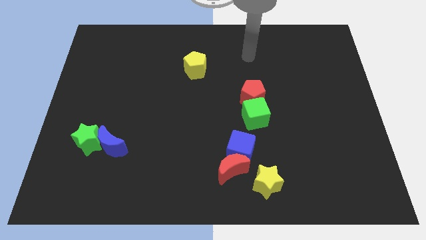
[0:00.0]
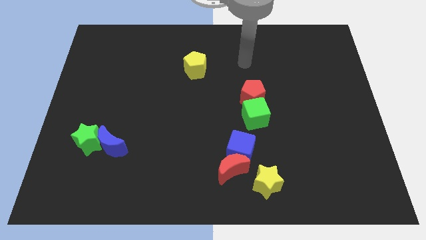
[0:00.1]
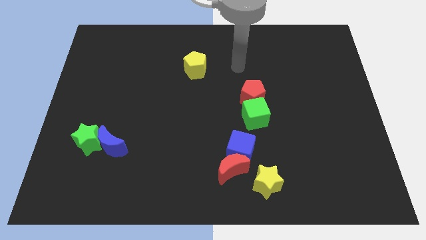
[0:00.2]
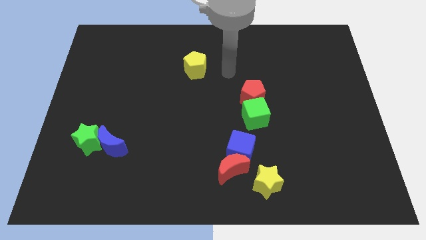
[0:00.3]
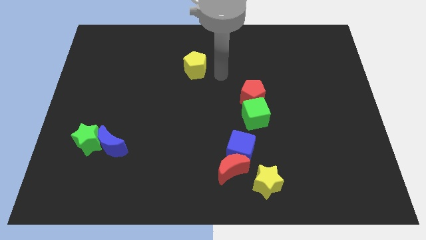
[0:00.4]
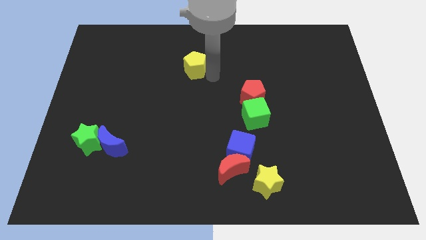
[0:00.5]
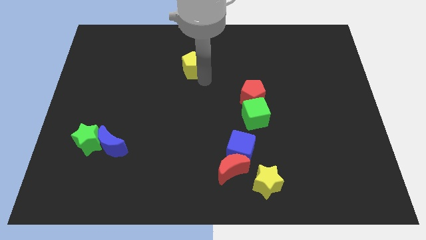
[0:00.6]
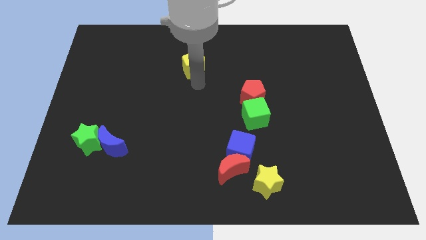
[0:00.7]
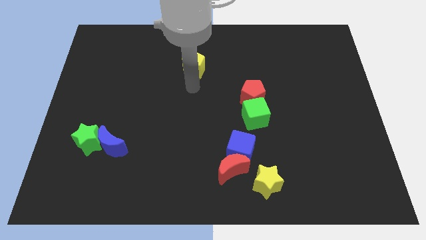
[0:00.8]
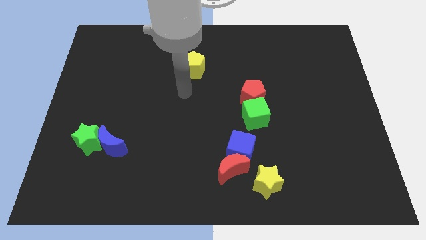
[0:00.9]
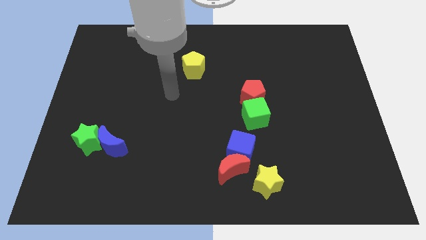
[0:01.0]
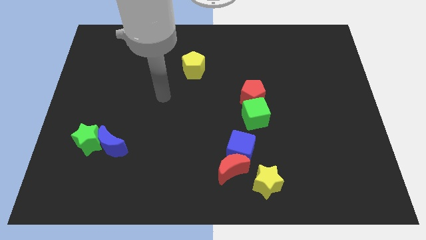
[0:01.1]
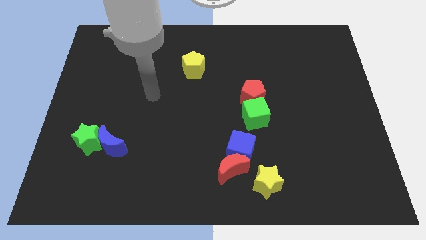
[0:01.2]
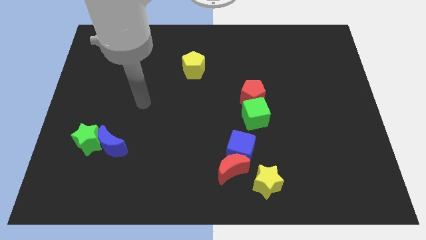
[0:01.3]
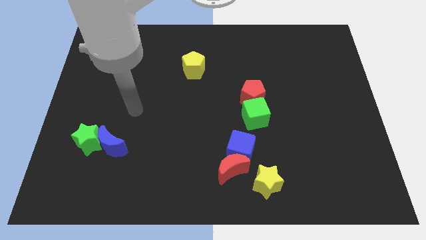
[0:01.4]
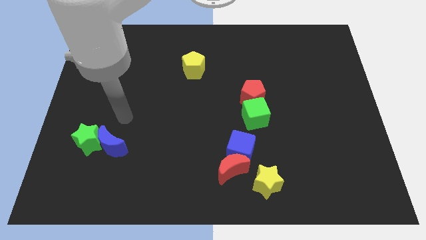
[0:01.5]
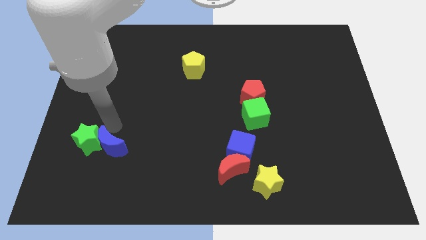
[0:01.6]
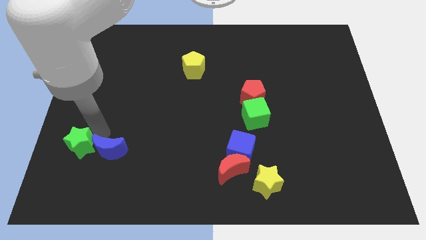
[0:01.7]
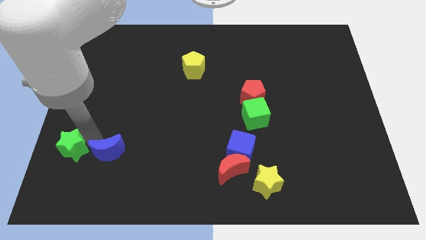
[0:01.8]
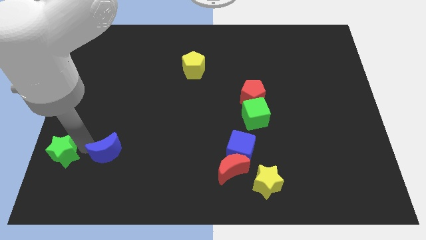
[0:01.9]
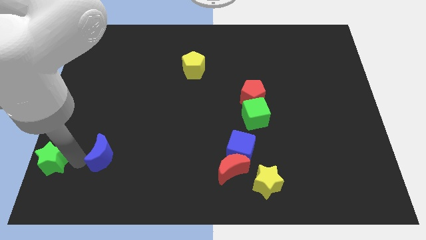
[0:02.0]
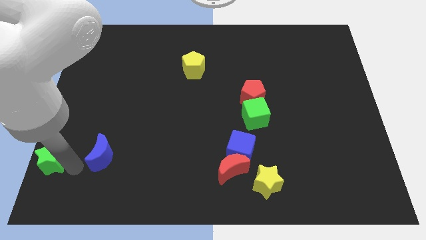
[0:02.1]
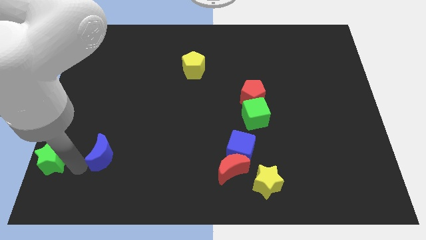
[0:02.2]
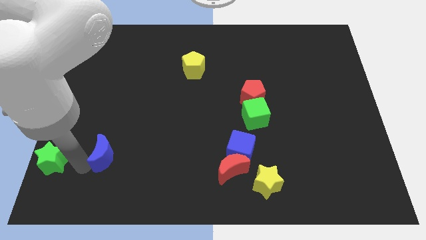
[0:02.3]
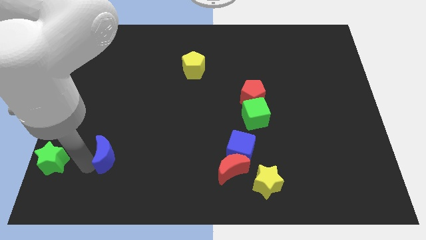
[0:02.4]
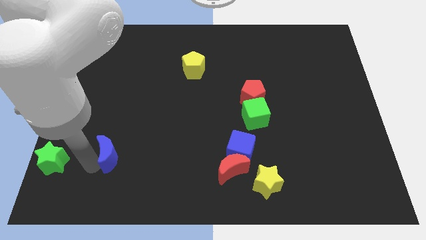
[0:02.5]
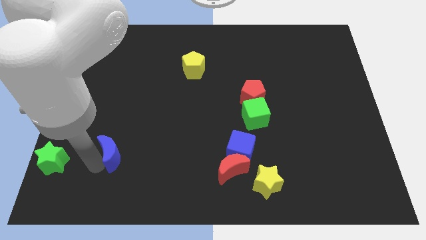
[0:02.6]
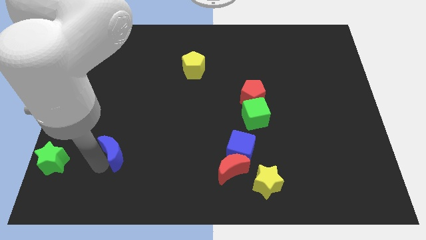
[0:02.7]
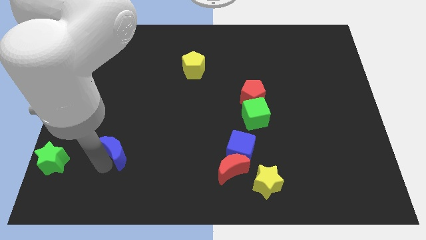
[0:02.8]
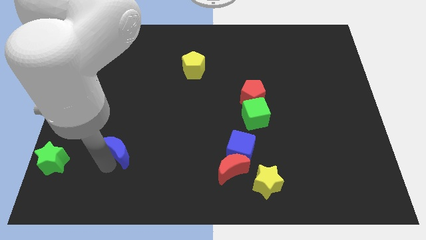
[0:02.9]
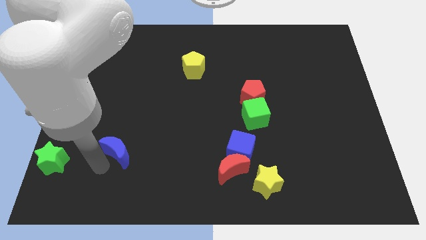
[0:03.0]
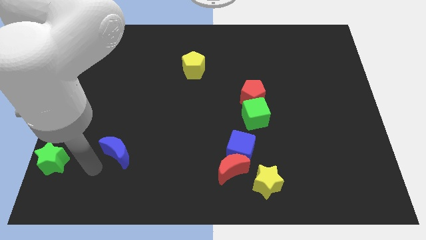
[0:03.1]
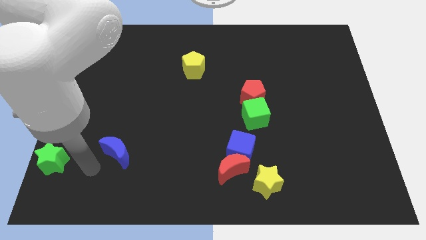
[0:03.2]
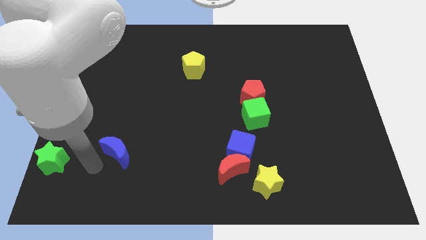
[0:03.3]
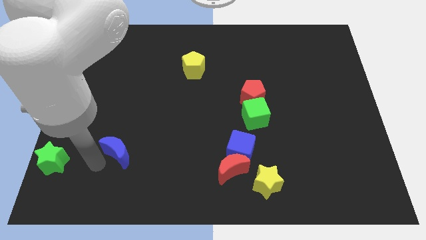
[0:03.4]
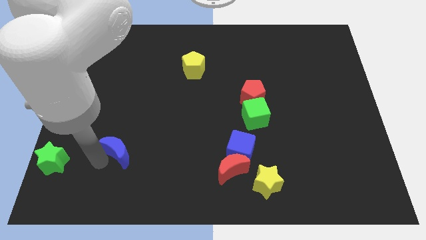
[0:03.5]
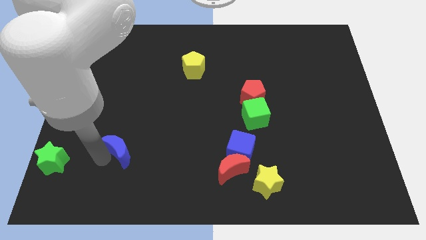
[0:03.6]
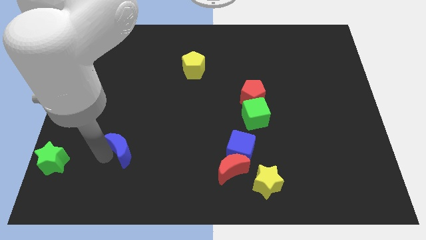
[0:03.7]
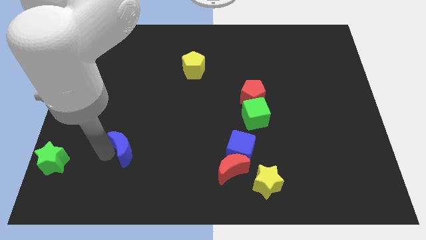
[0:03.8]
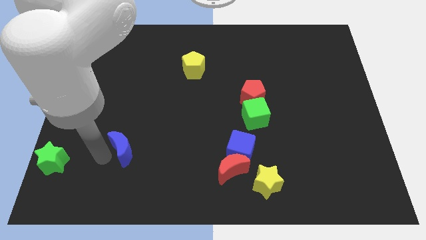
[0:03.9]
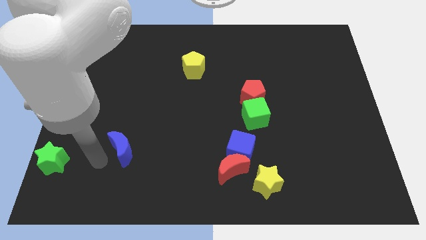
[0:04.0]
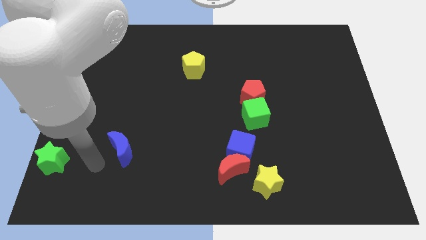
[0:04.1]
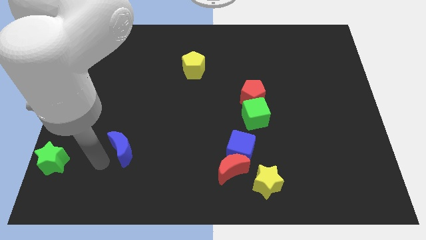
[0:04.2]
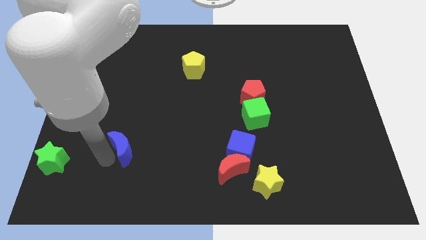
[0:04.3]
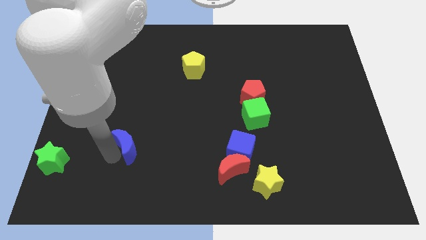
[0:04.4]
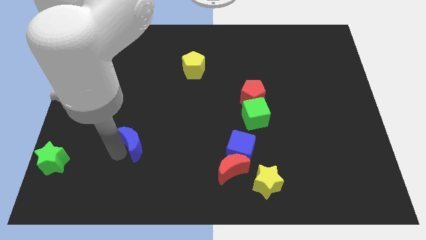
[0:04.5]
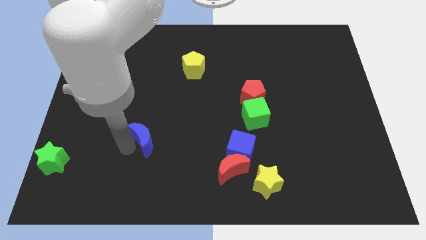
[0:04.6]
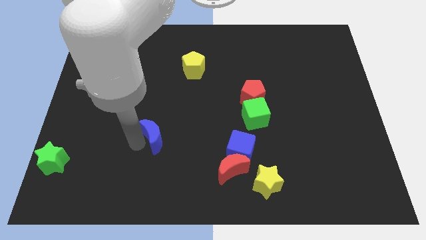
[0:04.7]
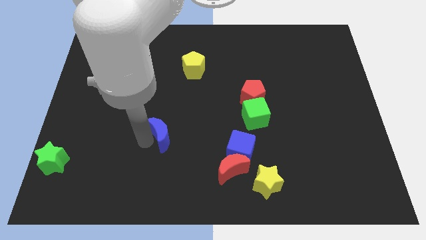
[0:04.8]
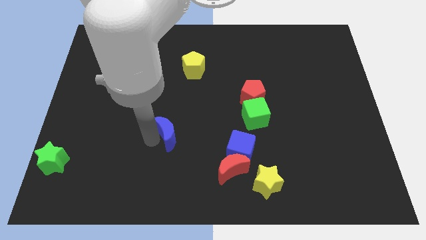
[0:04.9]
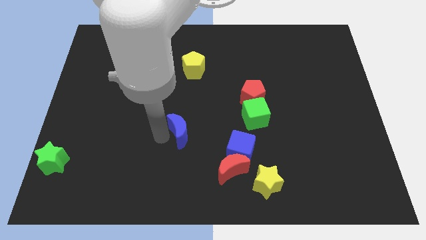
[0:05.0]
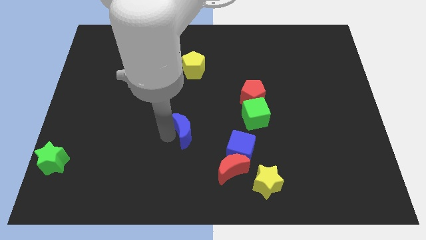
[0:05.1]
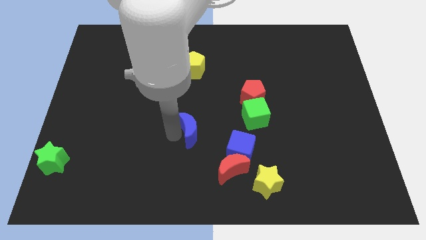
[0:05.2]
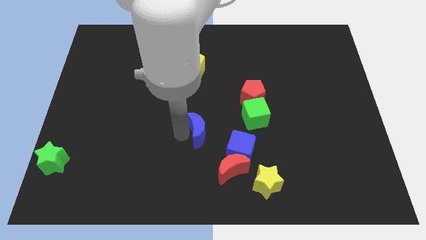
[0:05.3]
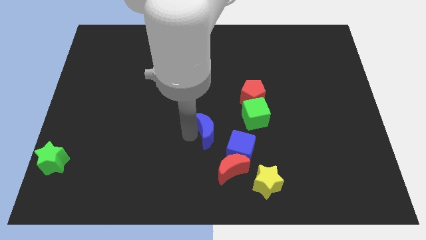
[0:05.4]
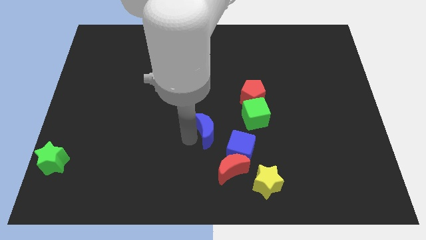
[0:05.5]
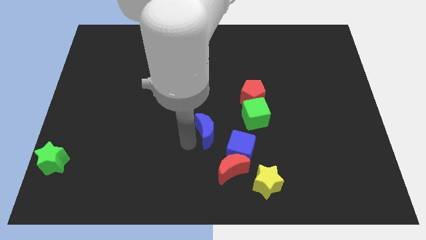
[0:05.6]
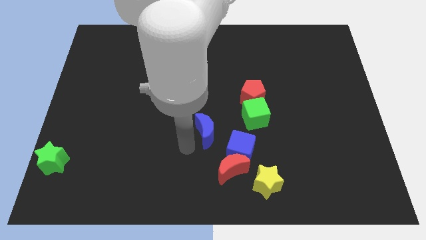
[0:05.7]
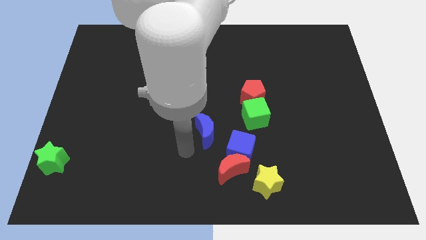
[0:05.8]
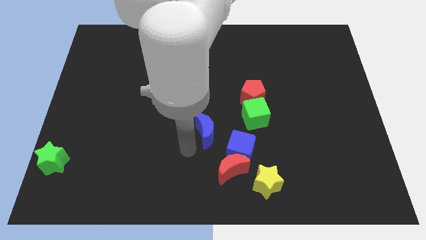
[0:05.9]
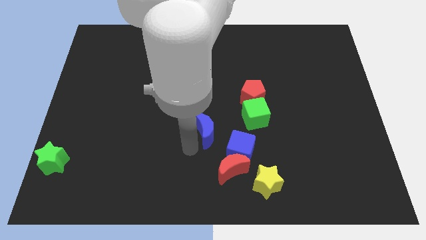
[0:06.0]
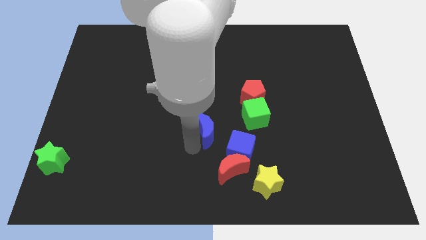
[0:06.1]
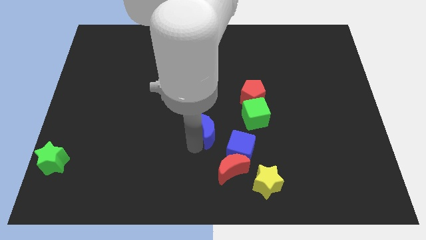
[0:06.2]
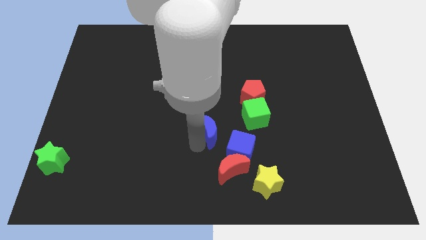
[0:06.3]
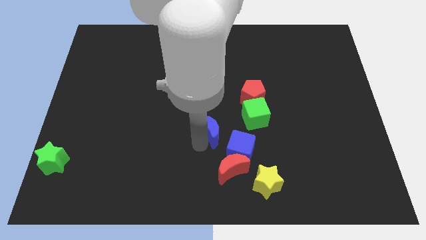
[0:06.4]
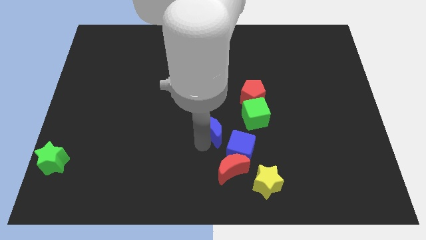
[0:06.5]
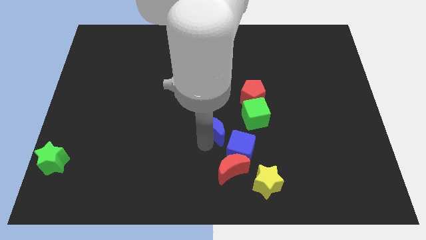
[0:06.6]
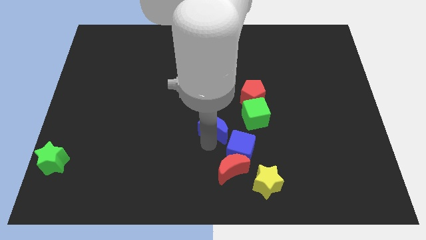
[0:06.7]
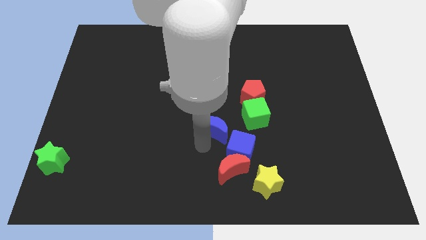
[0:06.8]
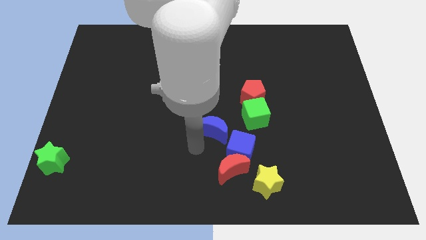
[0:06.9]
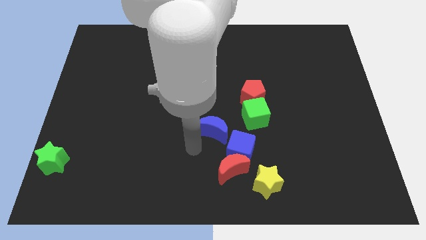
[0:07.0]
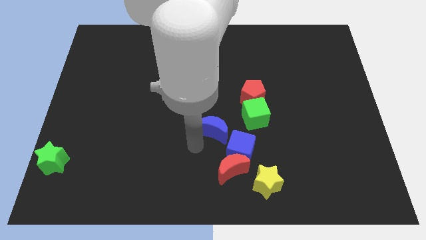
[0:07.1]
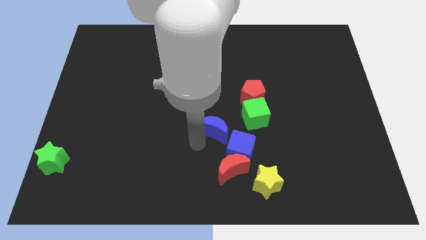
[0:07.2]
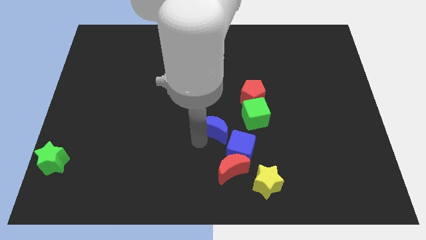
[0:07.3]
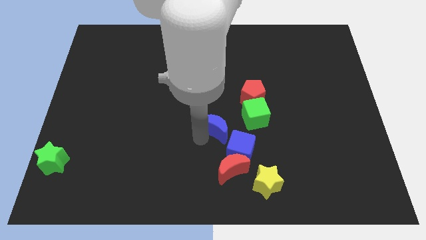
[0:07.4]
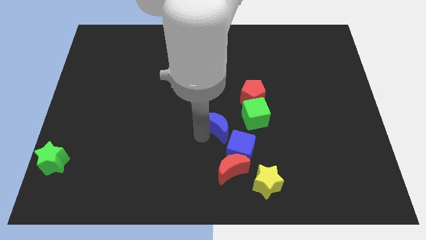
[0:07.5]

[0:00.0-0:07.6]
slide the blue moon to the top of the blue cube

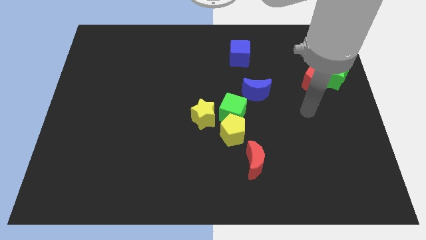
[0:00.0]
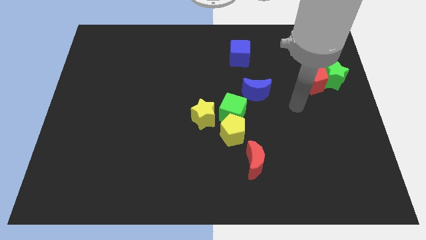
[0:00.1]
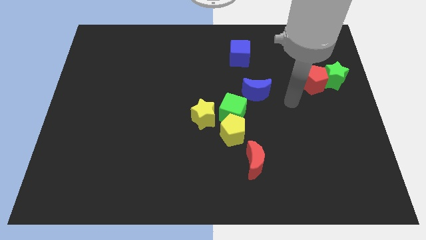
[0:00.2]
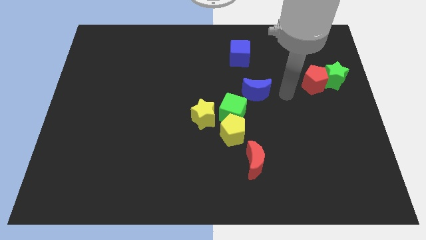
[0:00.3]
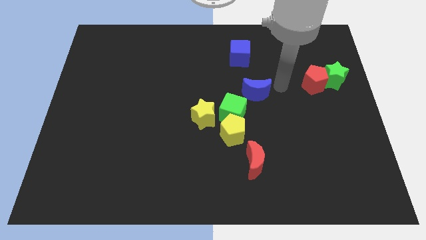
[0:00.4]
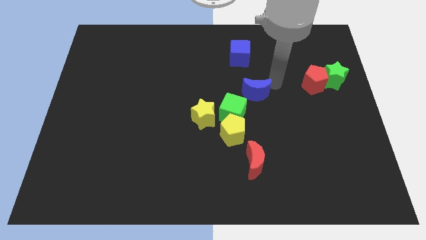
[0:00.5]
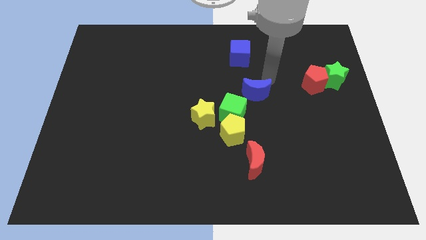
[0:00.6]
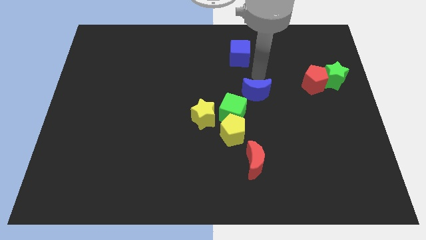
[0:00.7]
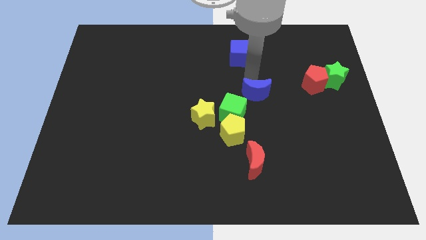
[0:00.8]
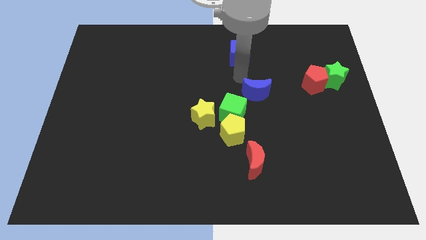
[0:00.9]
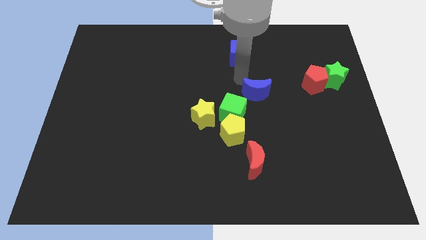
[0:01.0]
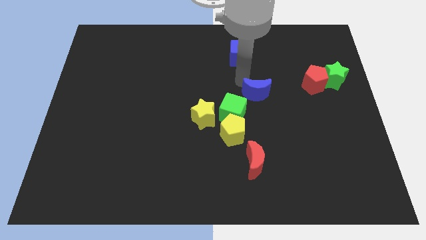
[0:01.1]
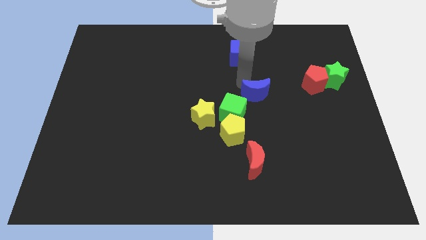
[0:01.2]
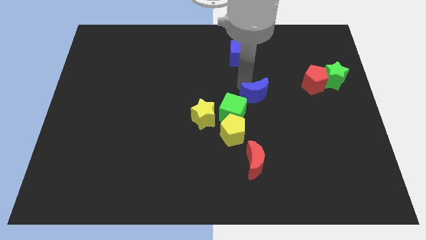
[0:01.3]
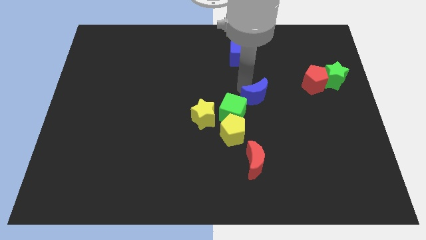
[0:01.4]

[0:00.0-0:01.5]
move the blue moon right of the green cube
